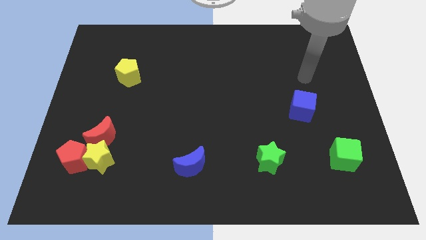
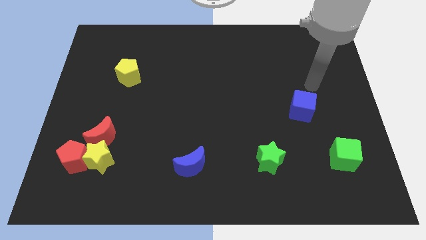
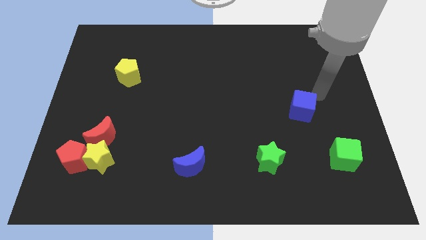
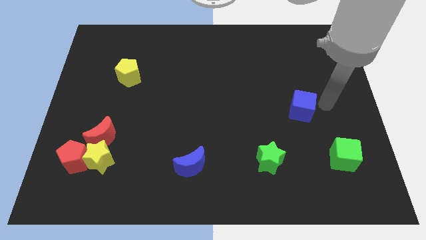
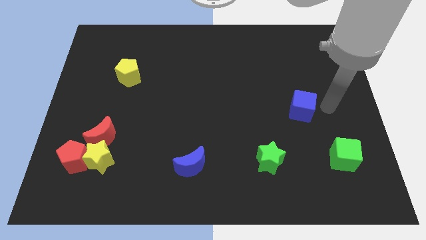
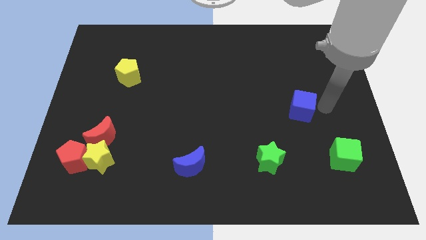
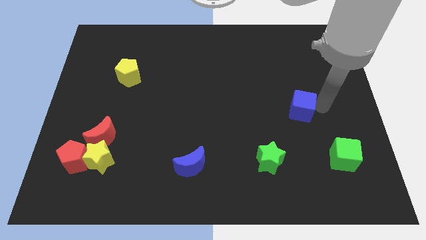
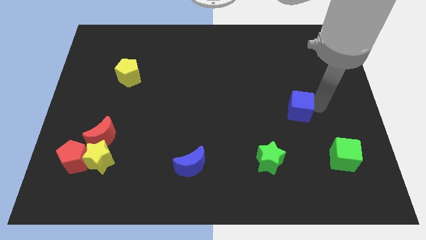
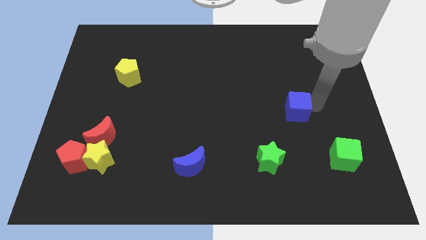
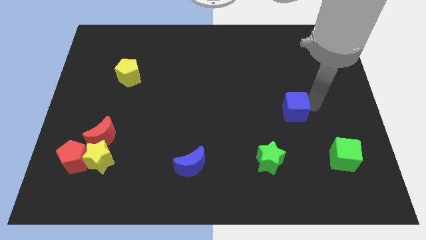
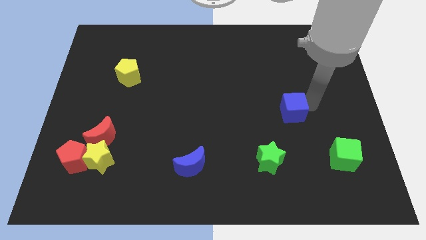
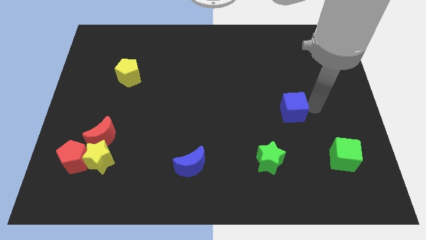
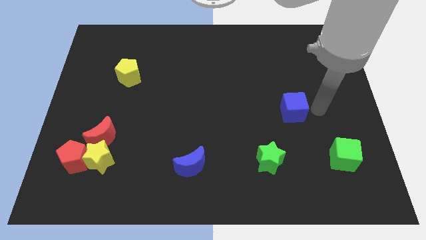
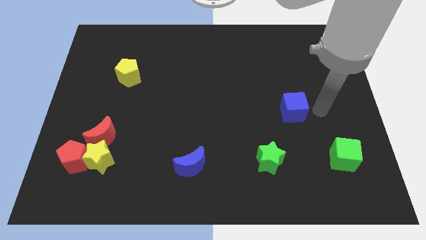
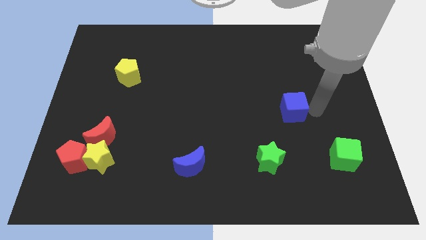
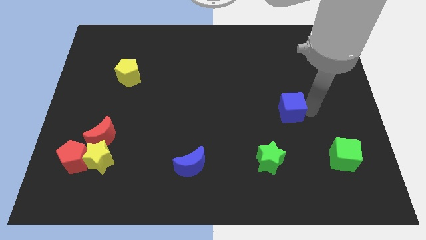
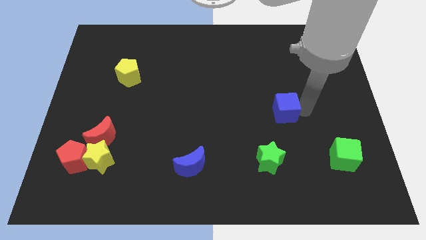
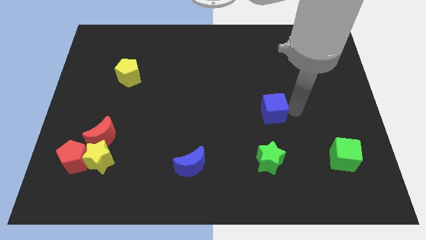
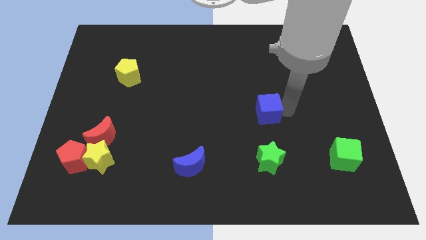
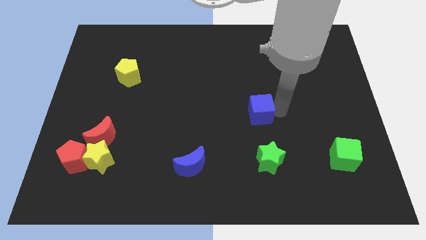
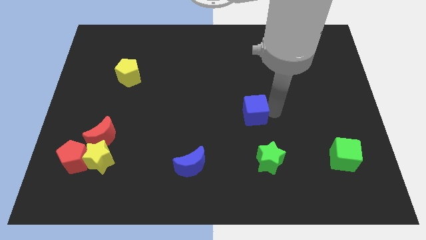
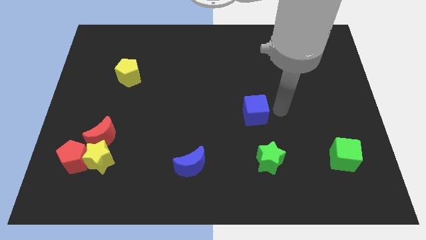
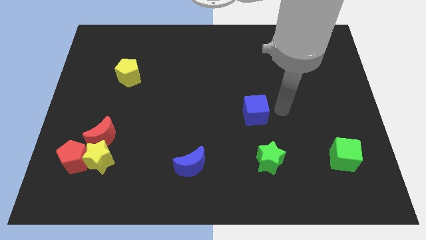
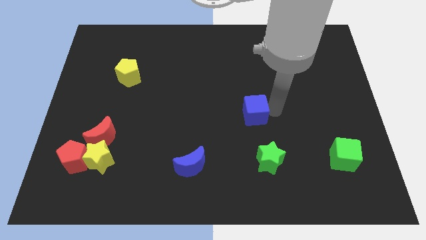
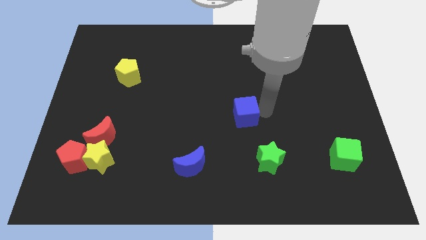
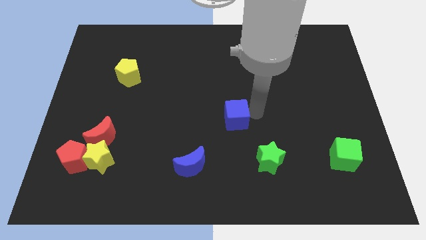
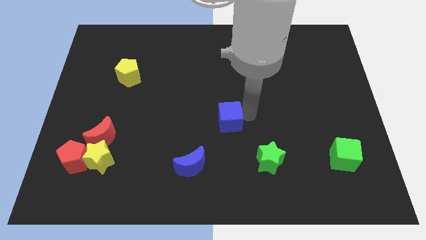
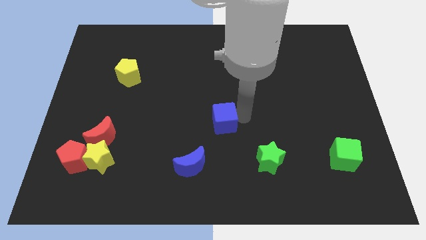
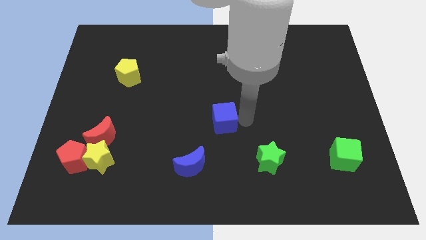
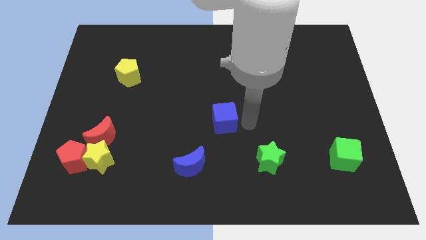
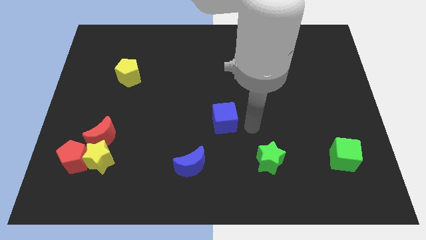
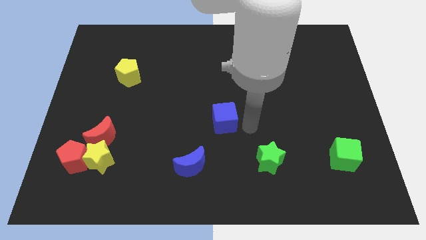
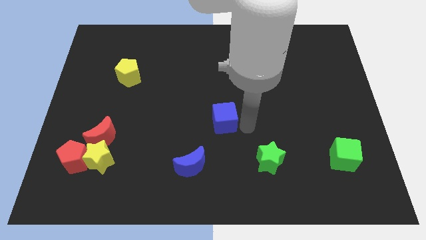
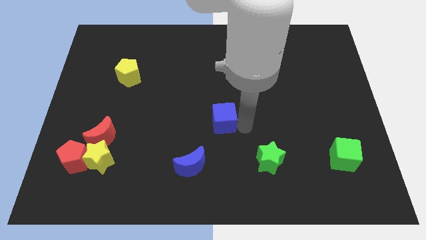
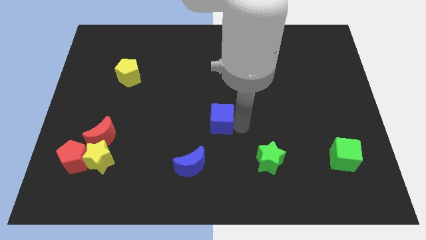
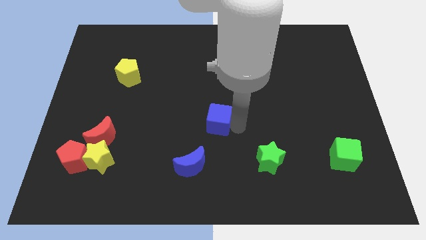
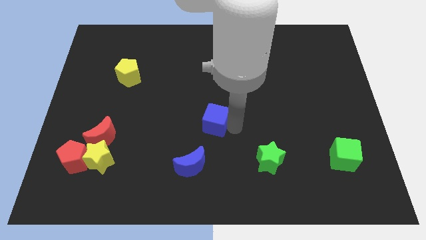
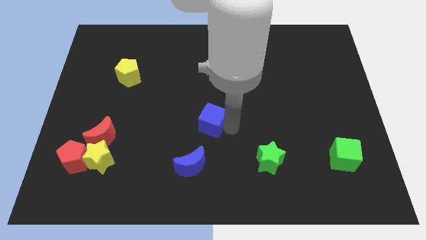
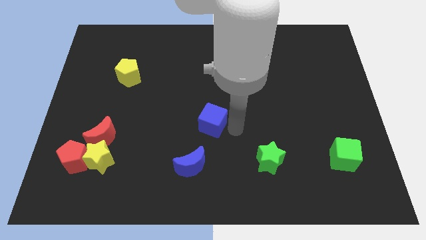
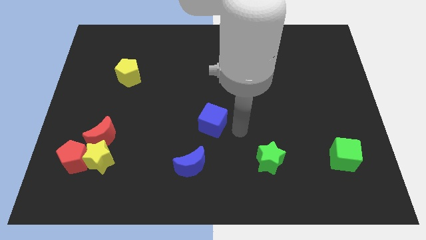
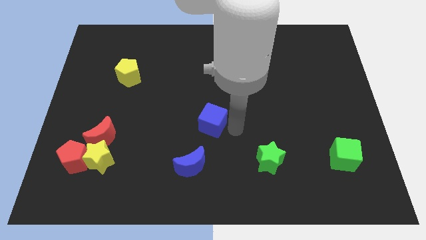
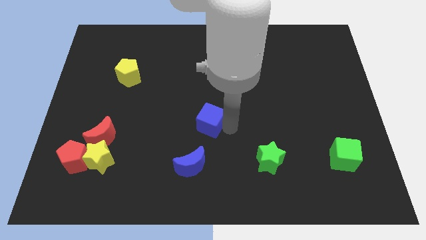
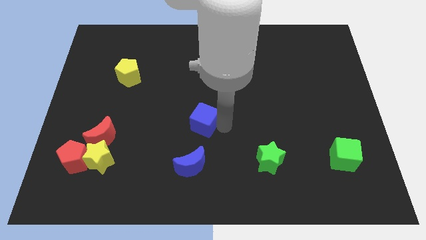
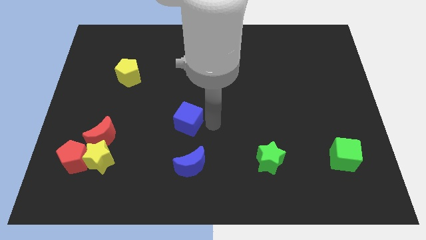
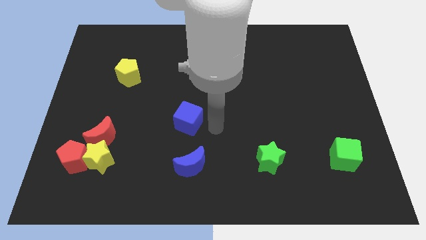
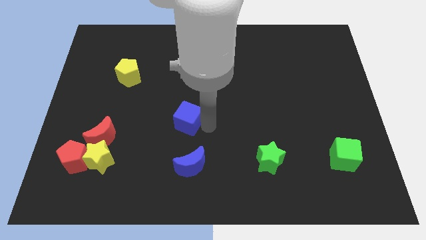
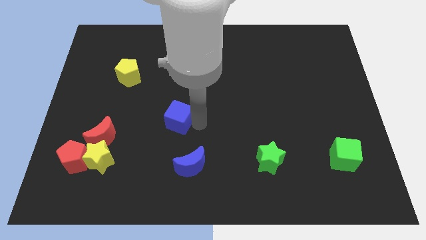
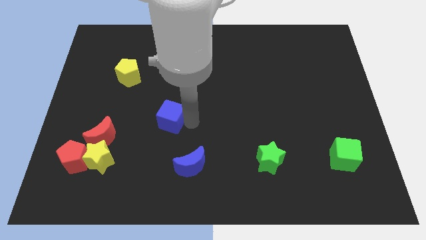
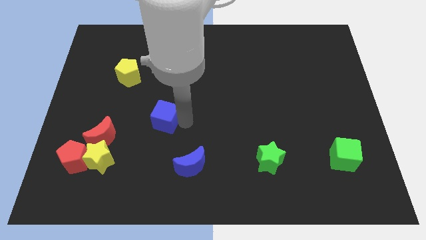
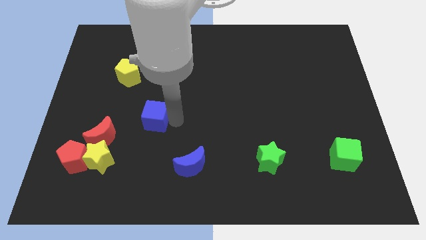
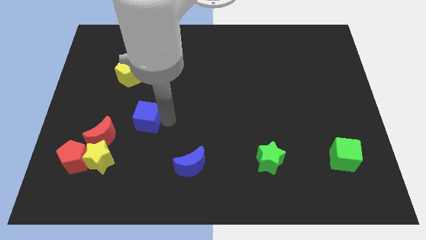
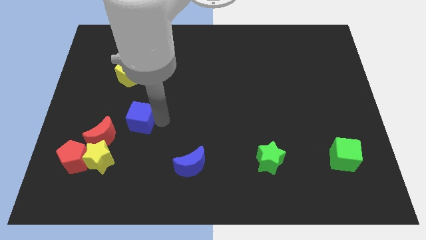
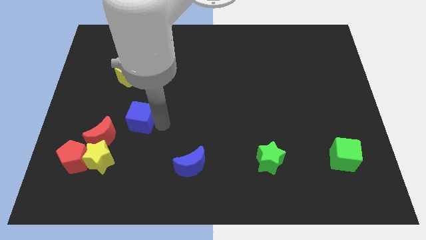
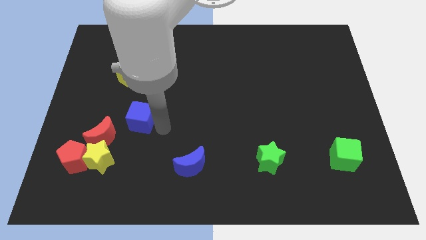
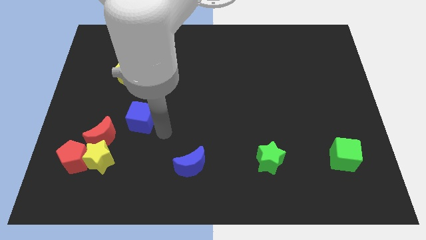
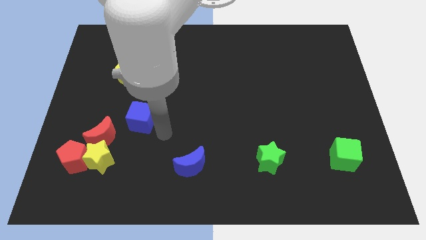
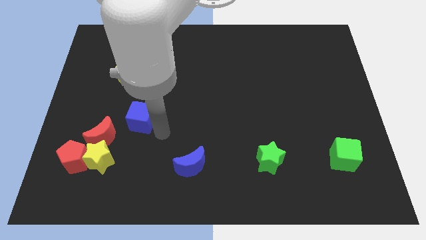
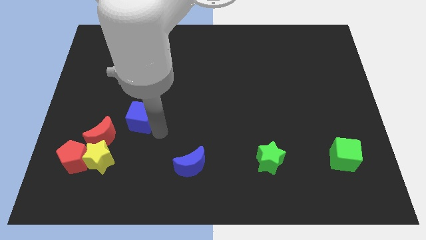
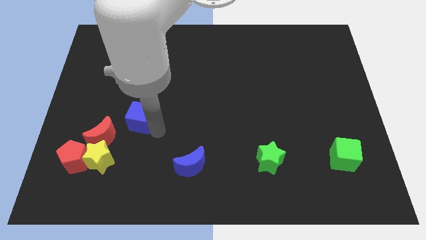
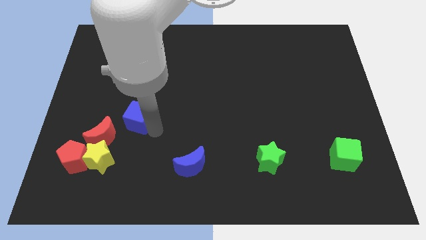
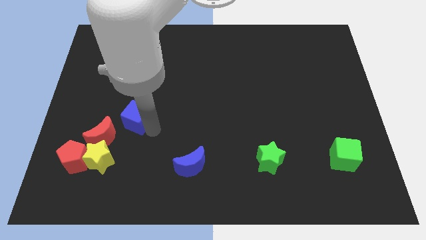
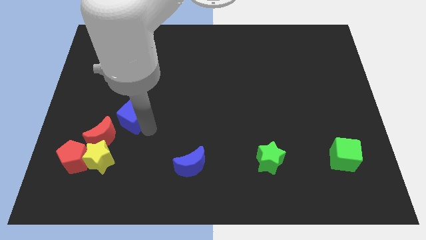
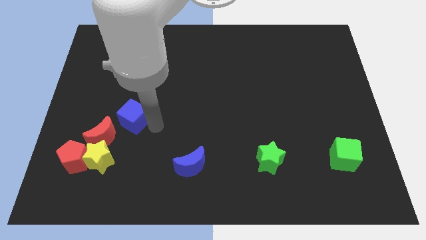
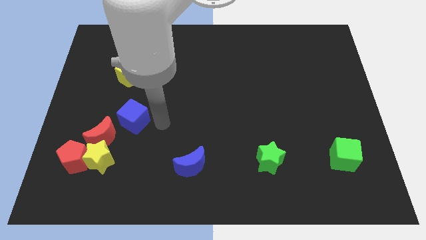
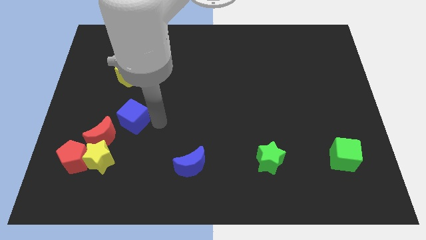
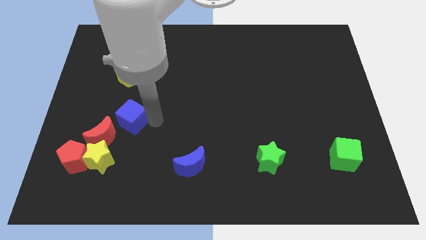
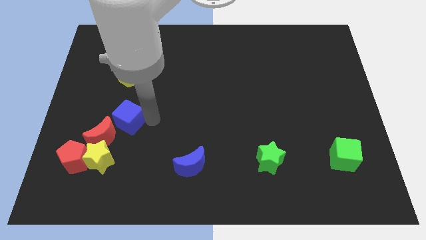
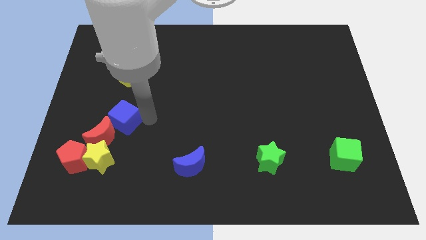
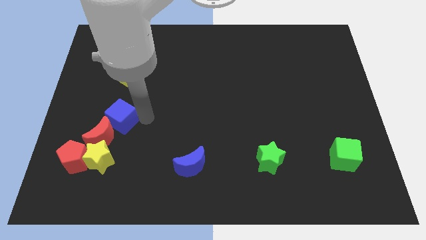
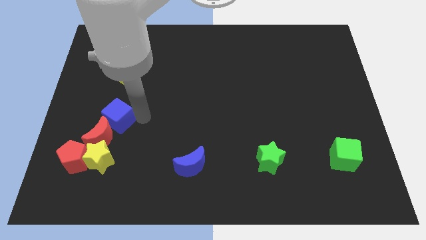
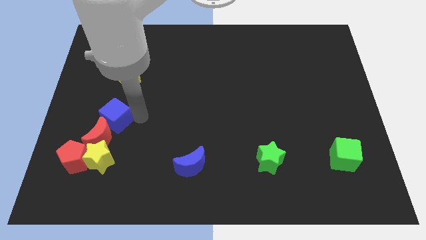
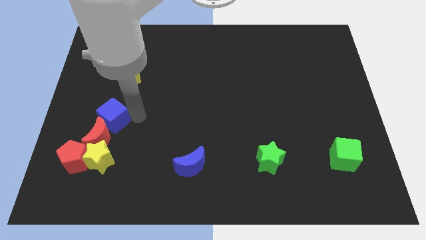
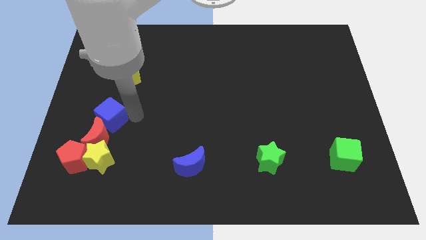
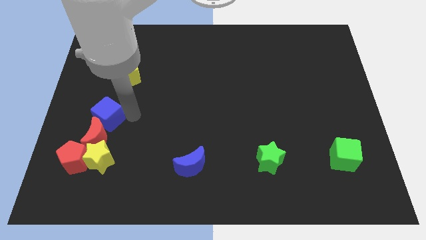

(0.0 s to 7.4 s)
put the blue cube to the top side of the red pentagon

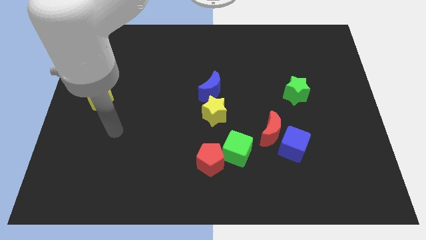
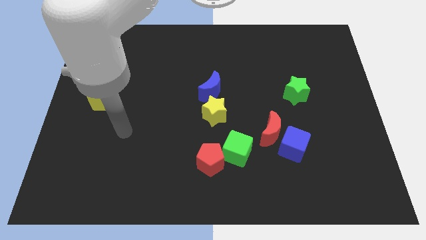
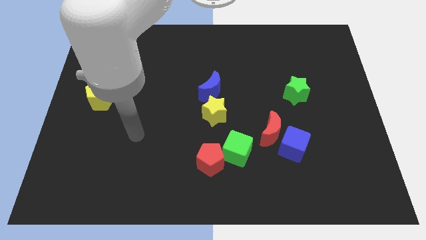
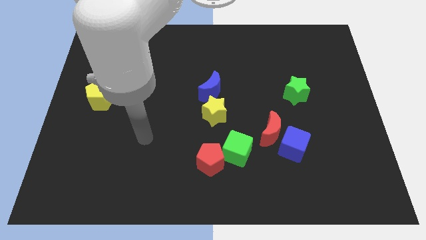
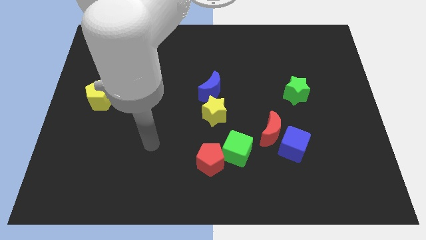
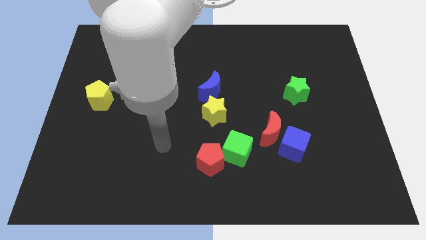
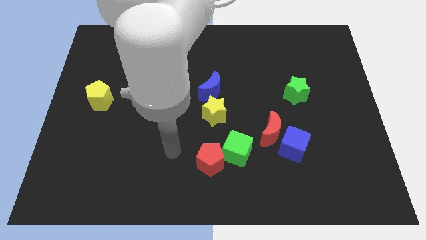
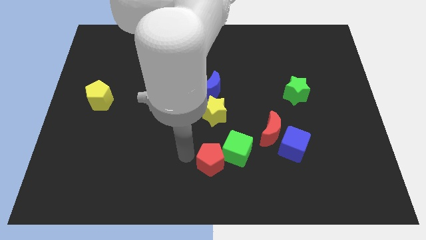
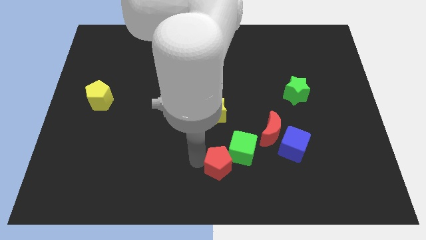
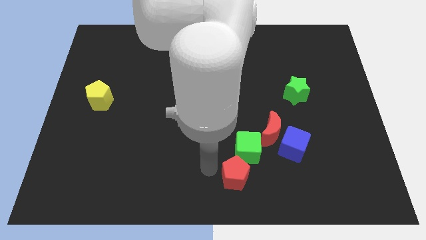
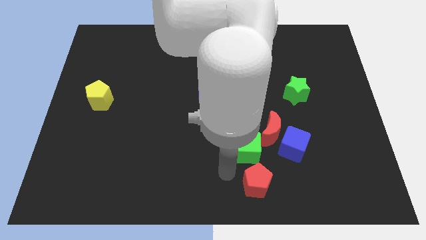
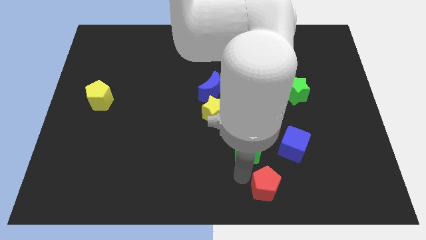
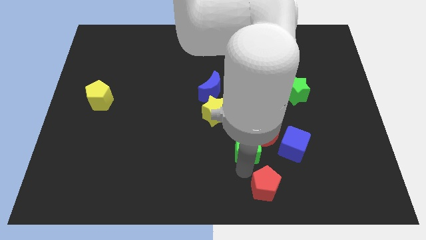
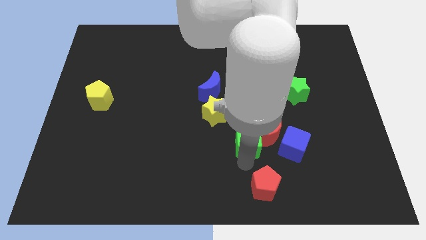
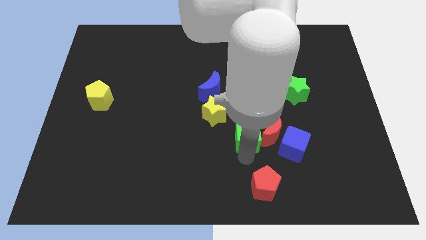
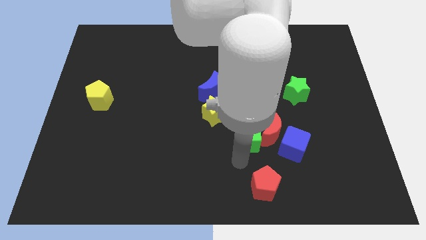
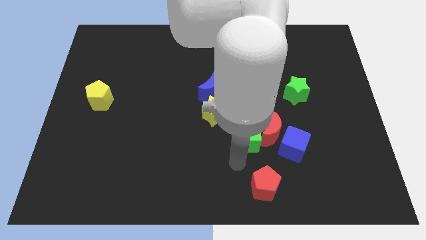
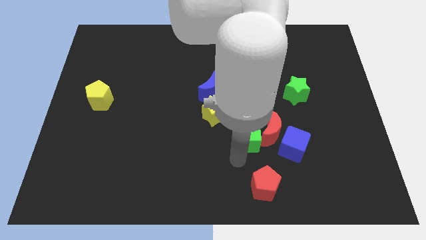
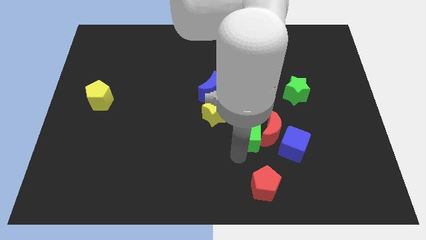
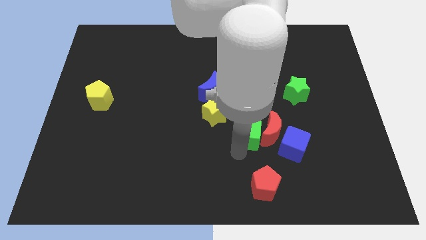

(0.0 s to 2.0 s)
put the green cube to the top left side of the blue cube
